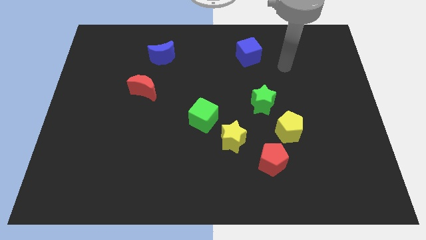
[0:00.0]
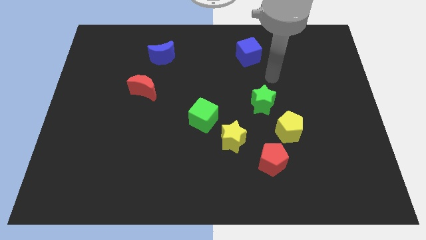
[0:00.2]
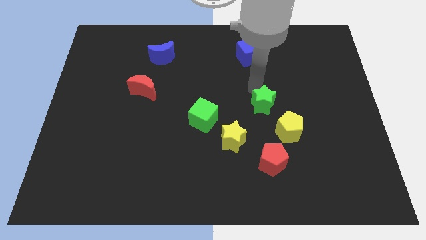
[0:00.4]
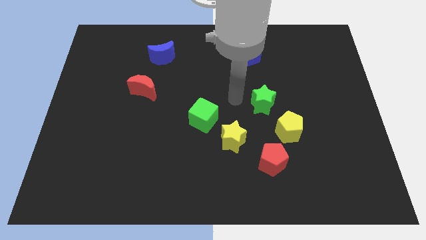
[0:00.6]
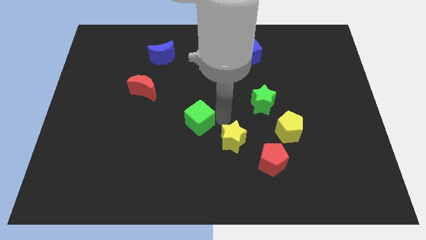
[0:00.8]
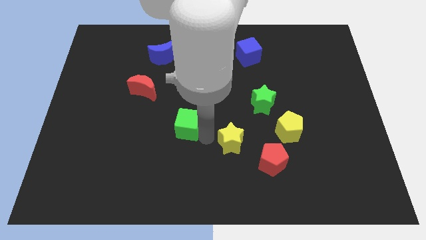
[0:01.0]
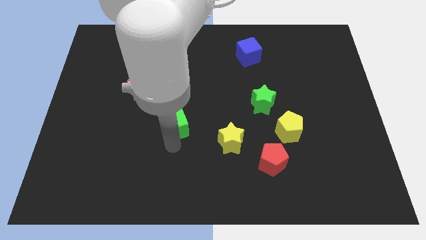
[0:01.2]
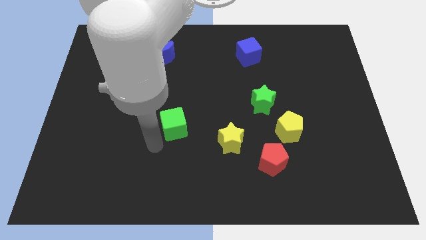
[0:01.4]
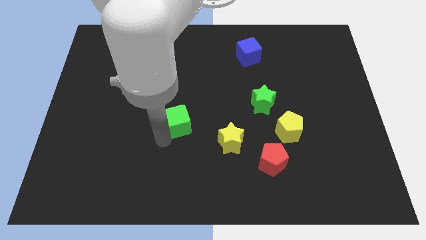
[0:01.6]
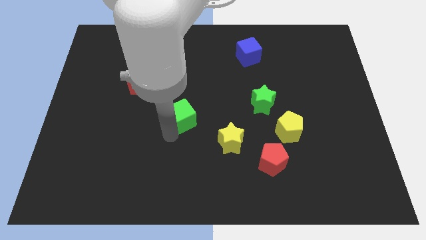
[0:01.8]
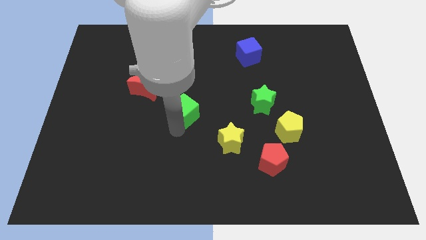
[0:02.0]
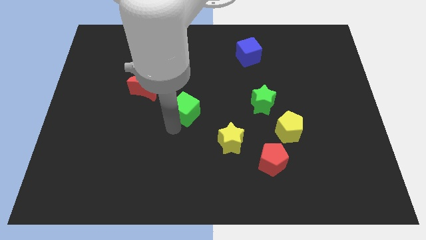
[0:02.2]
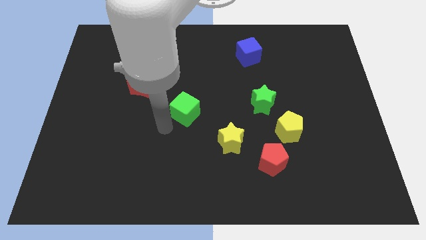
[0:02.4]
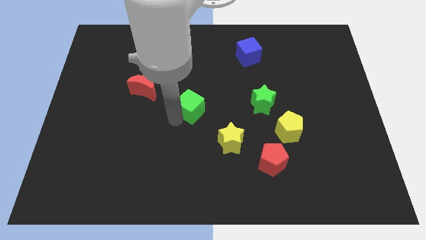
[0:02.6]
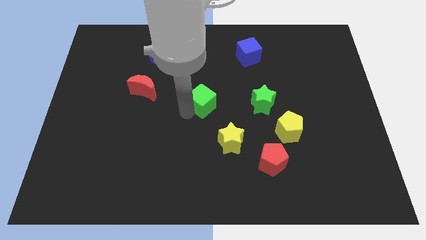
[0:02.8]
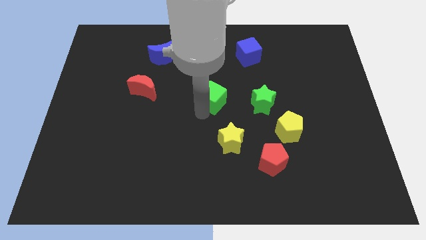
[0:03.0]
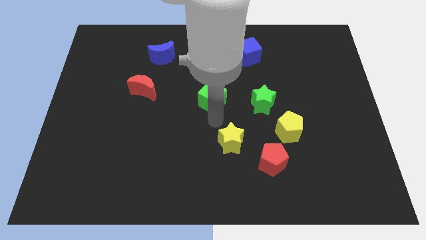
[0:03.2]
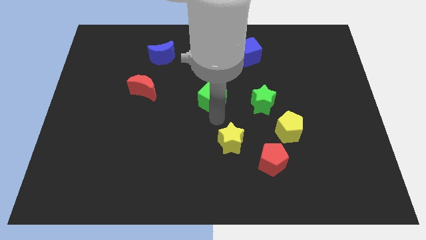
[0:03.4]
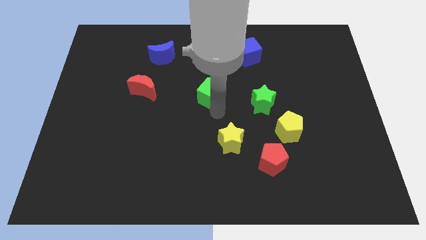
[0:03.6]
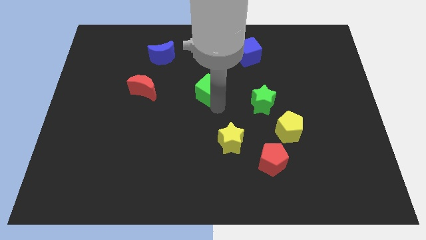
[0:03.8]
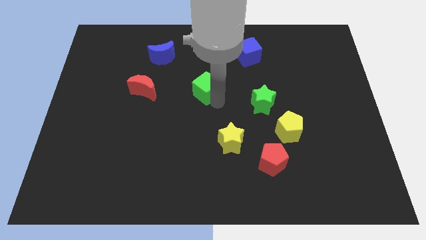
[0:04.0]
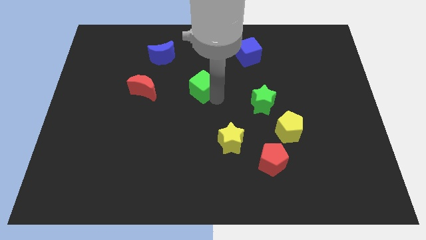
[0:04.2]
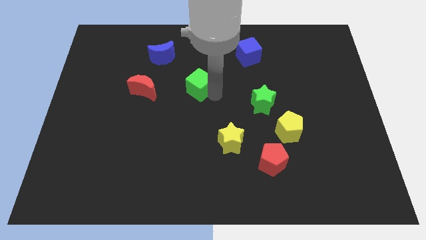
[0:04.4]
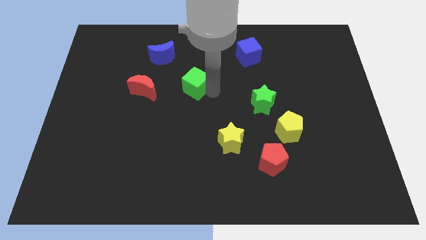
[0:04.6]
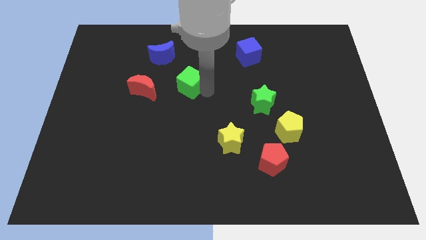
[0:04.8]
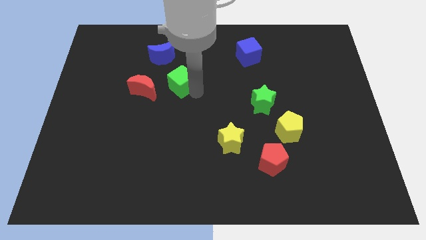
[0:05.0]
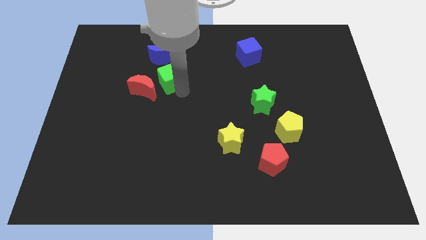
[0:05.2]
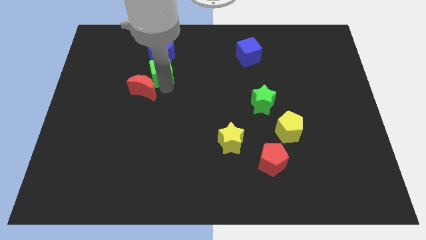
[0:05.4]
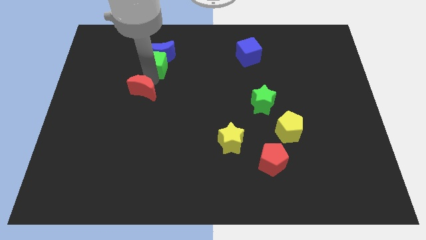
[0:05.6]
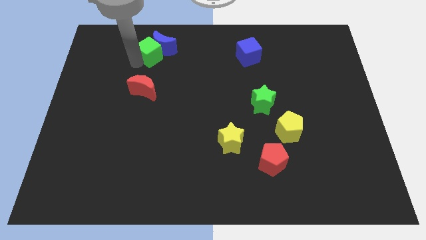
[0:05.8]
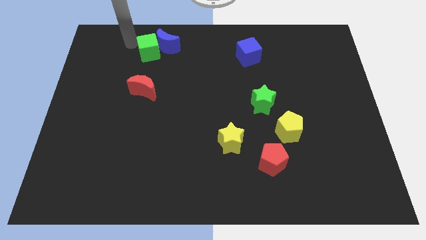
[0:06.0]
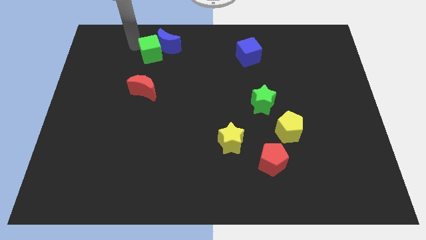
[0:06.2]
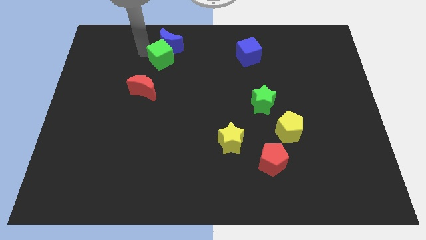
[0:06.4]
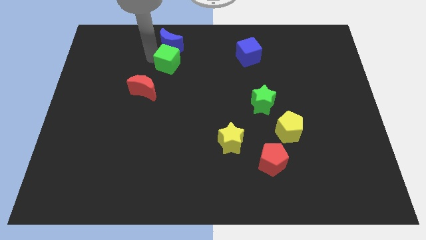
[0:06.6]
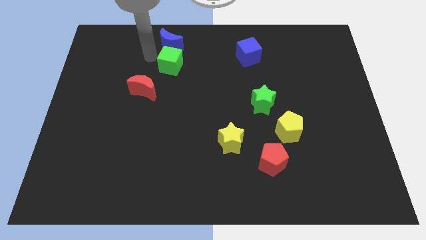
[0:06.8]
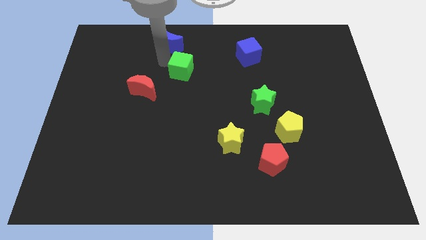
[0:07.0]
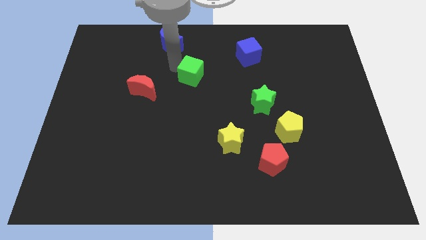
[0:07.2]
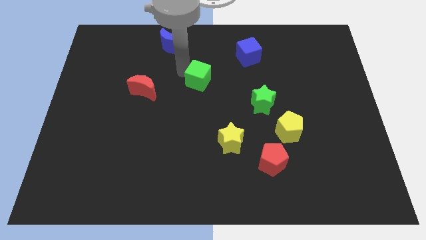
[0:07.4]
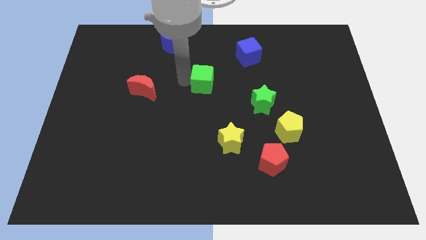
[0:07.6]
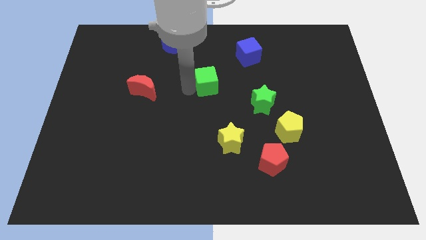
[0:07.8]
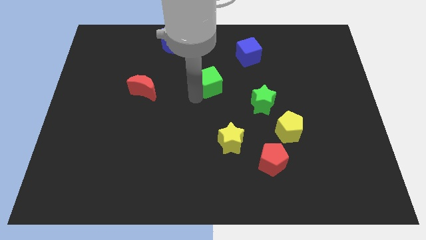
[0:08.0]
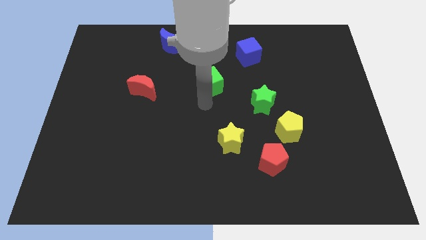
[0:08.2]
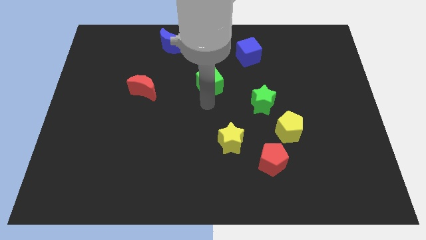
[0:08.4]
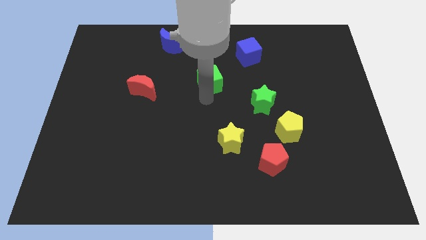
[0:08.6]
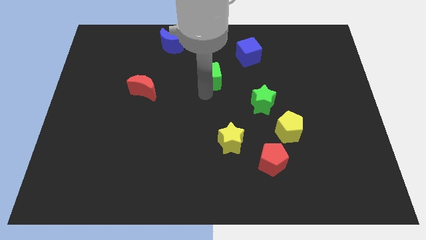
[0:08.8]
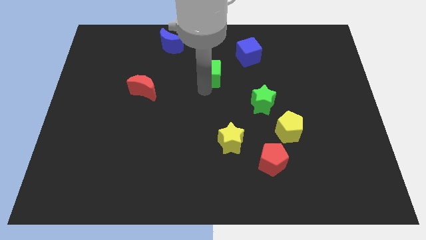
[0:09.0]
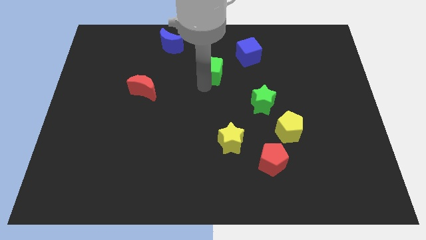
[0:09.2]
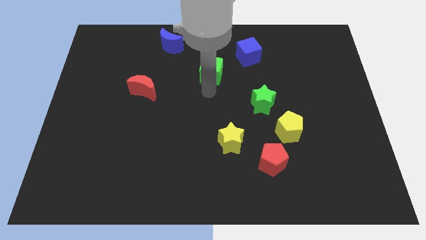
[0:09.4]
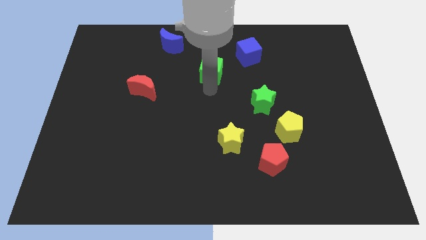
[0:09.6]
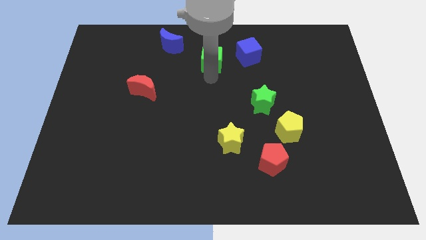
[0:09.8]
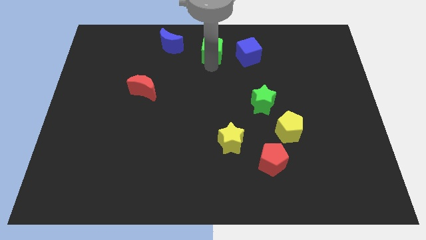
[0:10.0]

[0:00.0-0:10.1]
slide the green cube to the top

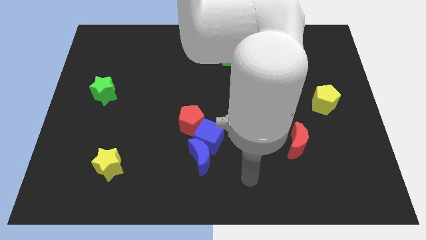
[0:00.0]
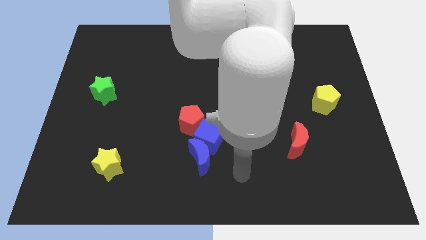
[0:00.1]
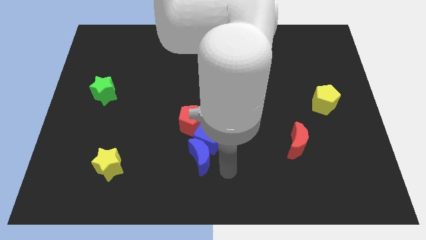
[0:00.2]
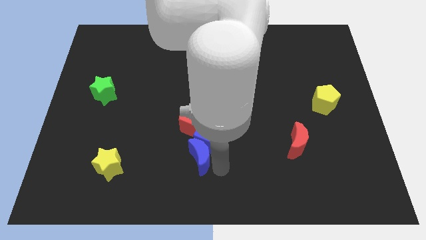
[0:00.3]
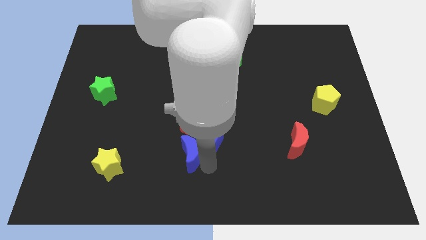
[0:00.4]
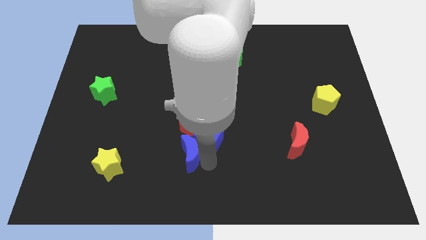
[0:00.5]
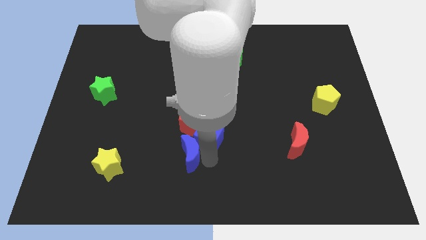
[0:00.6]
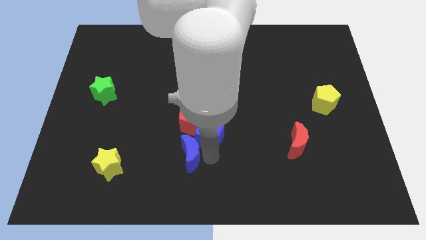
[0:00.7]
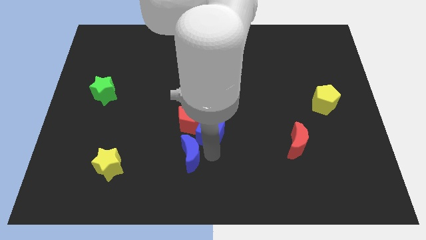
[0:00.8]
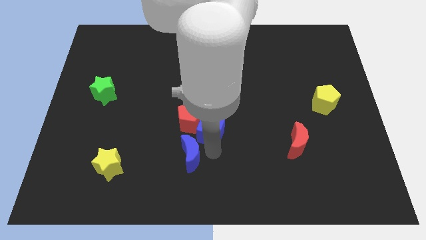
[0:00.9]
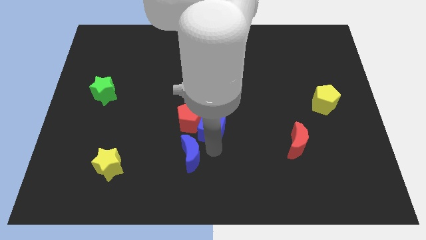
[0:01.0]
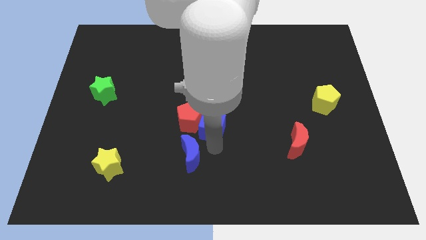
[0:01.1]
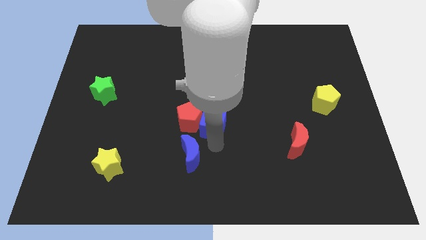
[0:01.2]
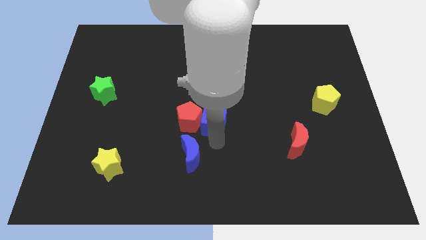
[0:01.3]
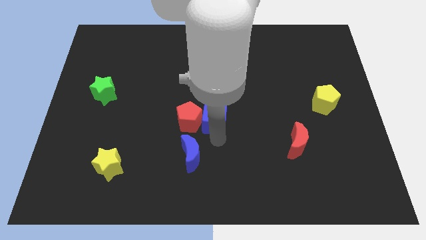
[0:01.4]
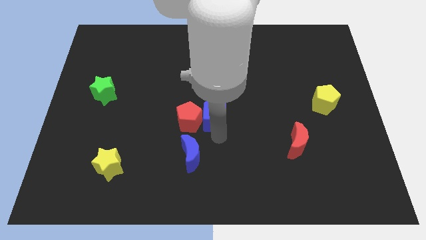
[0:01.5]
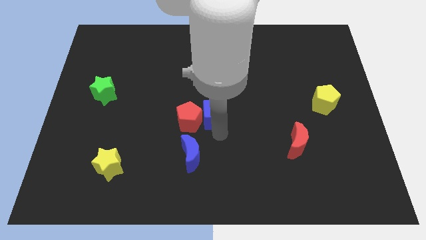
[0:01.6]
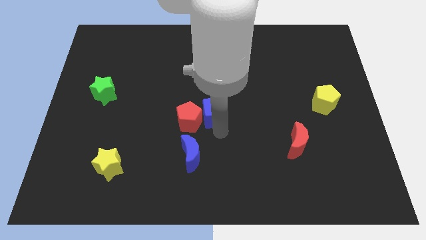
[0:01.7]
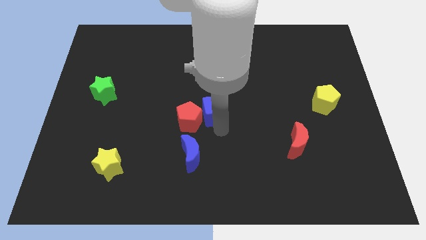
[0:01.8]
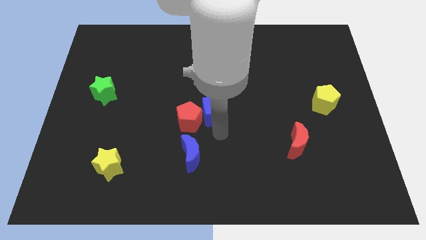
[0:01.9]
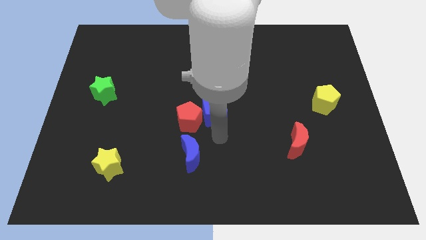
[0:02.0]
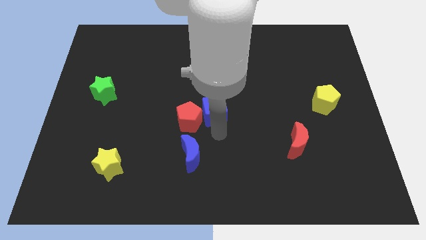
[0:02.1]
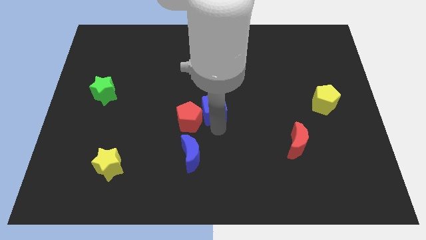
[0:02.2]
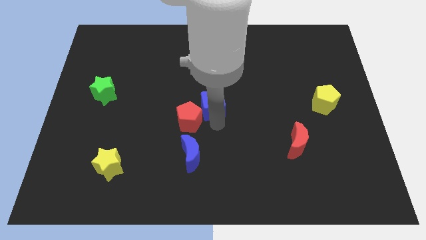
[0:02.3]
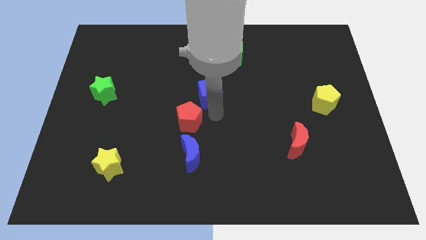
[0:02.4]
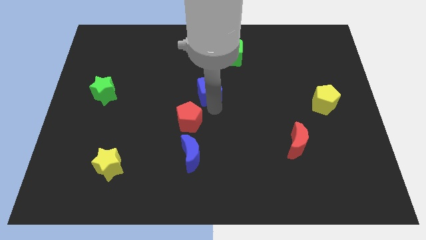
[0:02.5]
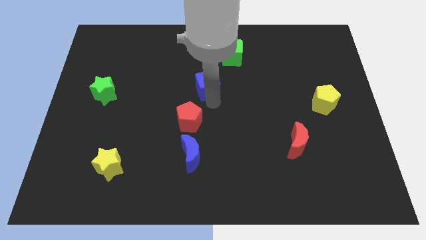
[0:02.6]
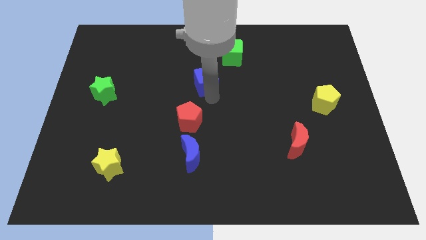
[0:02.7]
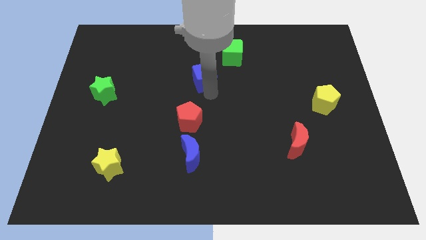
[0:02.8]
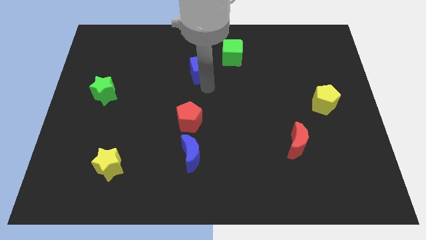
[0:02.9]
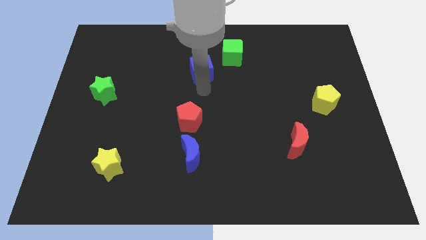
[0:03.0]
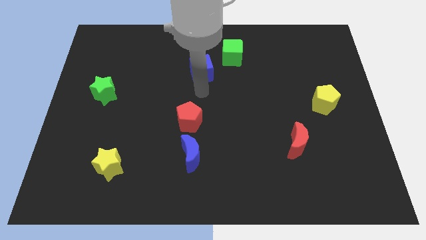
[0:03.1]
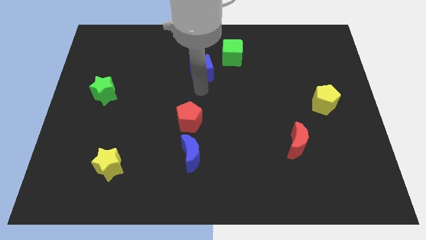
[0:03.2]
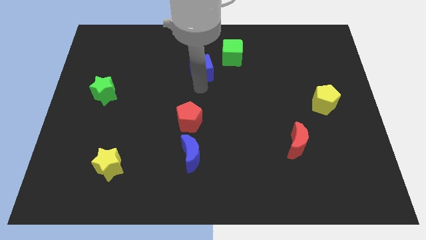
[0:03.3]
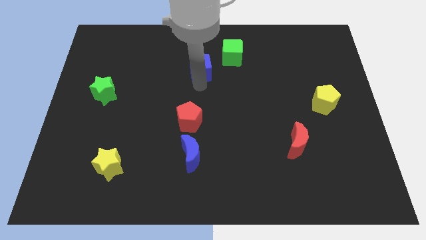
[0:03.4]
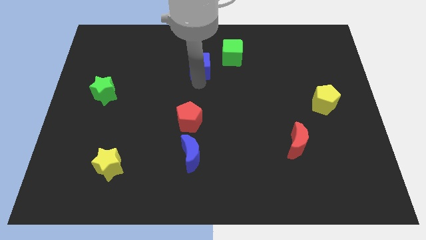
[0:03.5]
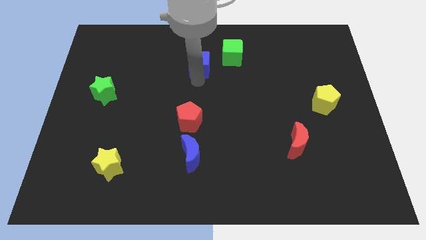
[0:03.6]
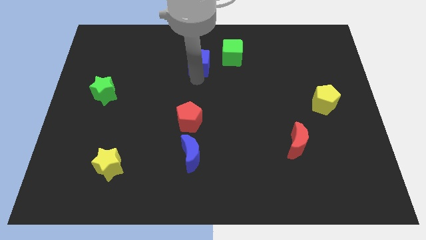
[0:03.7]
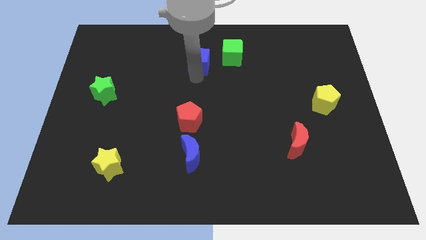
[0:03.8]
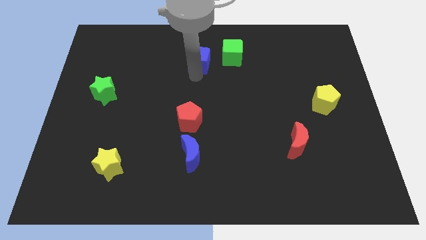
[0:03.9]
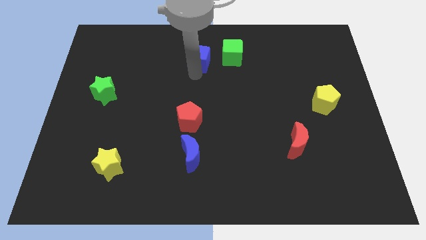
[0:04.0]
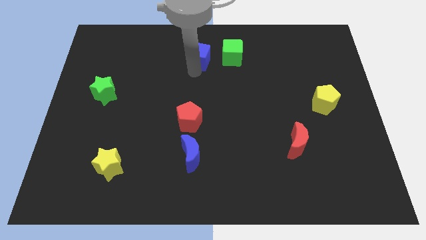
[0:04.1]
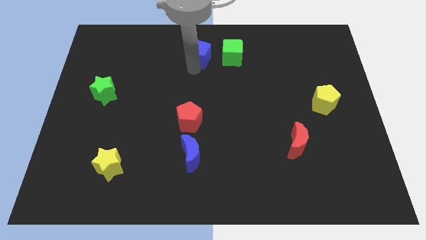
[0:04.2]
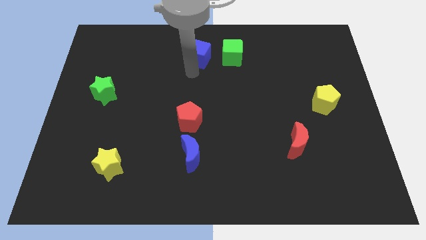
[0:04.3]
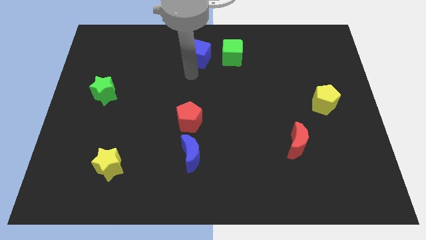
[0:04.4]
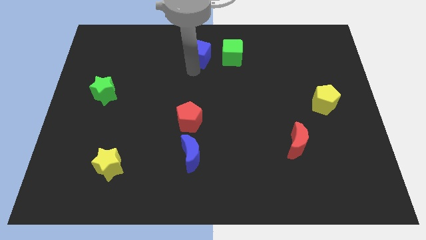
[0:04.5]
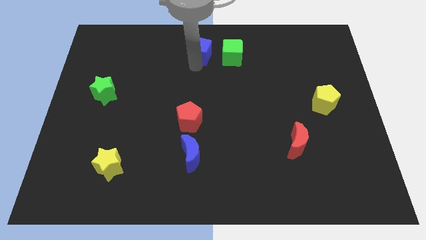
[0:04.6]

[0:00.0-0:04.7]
push the blue cube to the top
